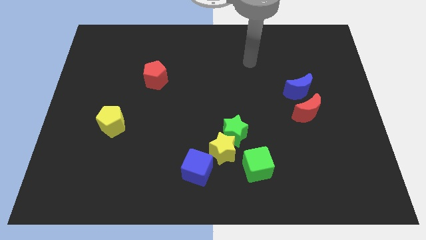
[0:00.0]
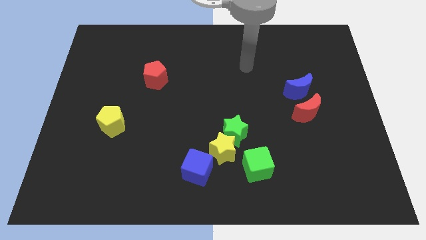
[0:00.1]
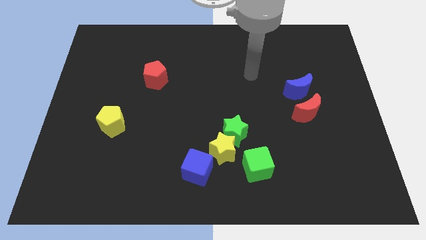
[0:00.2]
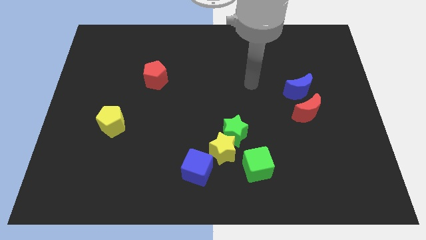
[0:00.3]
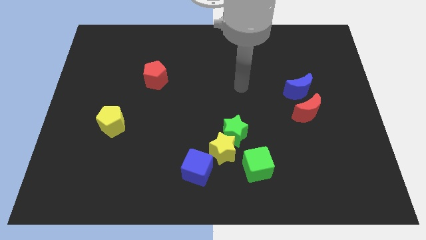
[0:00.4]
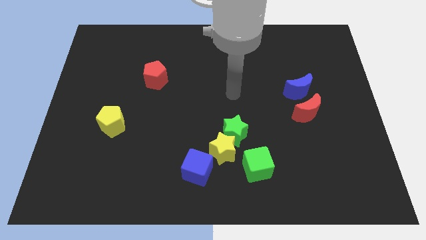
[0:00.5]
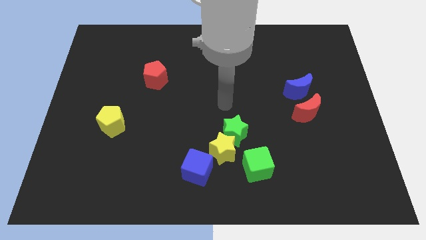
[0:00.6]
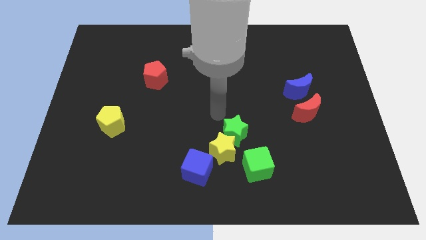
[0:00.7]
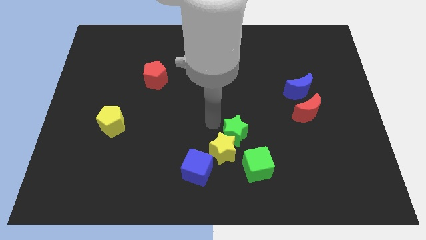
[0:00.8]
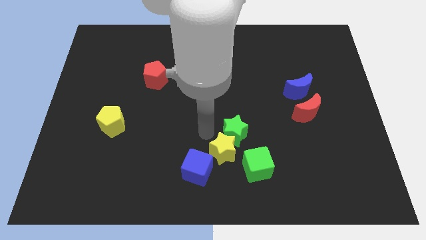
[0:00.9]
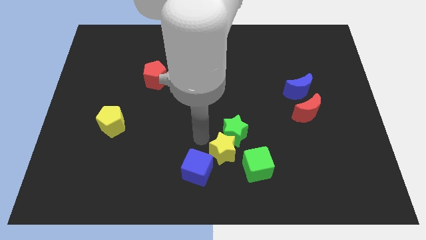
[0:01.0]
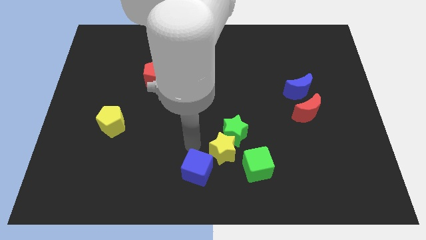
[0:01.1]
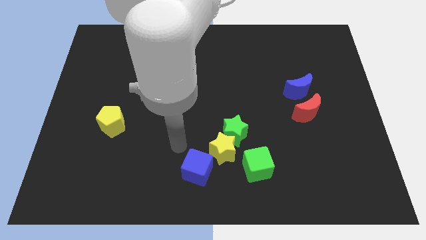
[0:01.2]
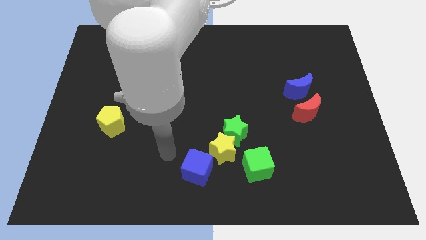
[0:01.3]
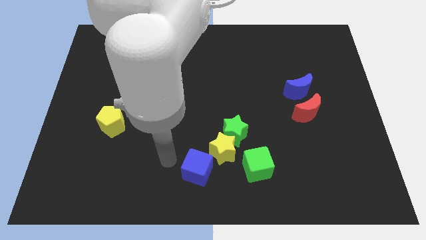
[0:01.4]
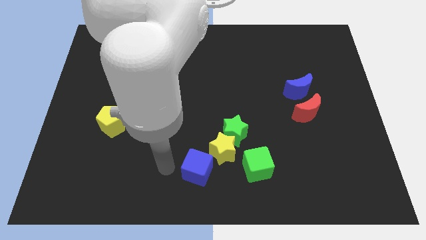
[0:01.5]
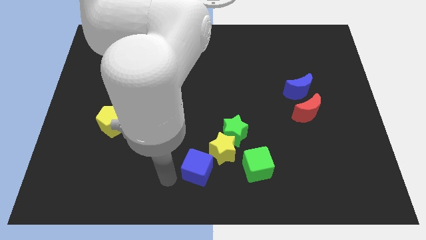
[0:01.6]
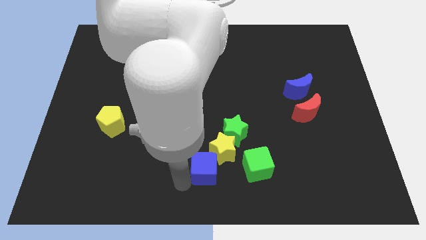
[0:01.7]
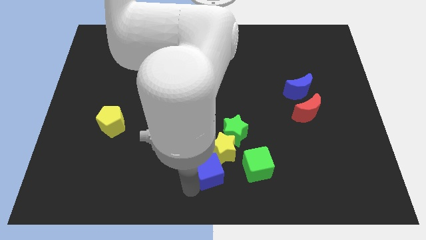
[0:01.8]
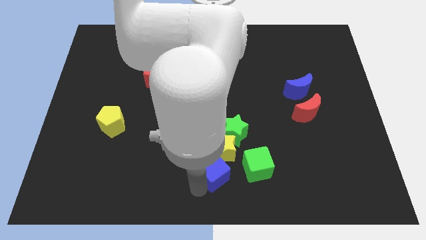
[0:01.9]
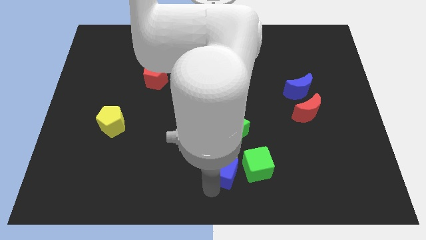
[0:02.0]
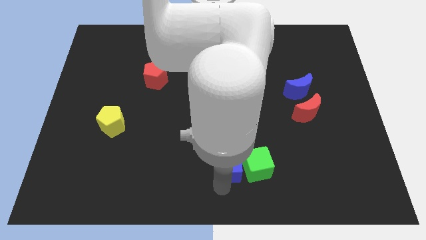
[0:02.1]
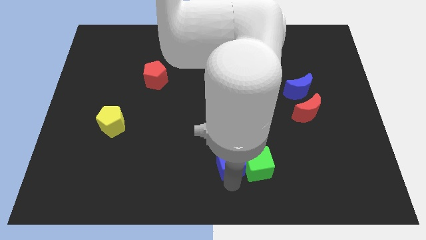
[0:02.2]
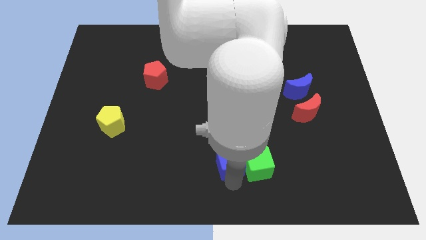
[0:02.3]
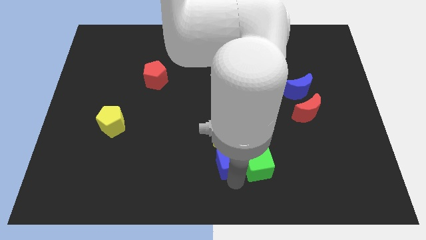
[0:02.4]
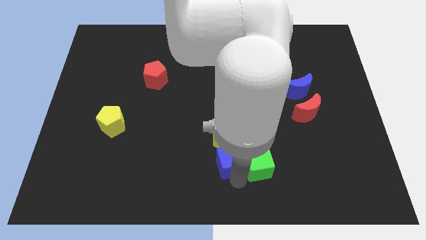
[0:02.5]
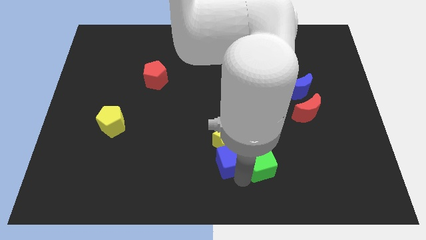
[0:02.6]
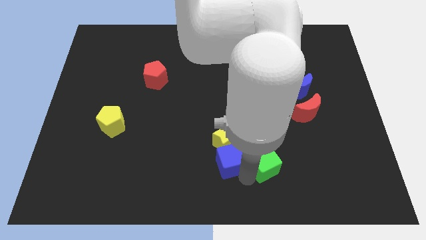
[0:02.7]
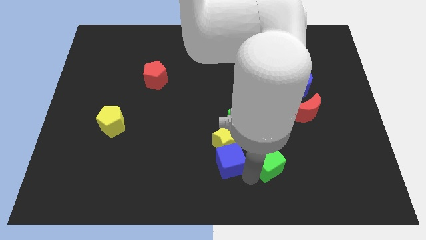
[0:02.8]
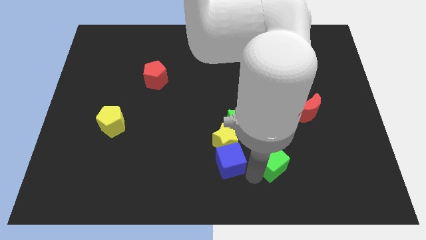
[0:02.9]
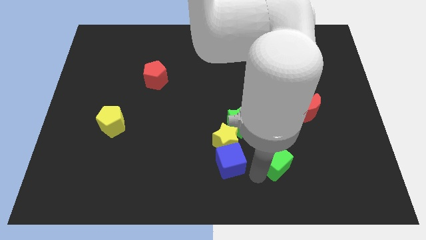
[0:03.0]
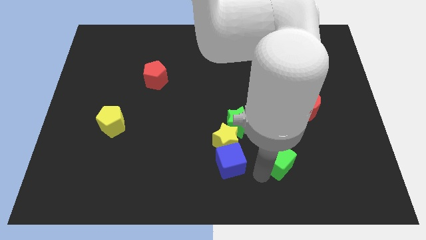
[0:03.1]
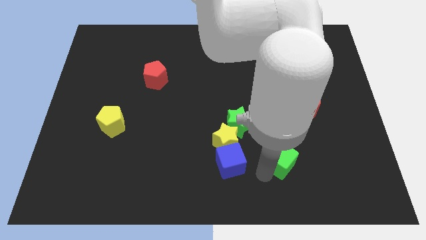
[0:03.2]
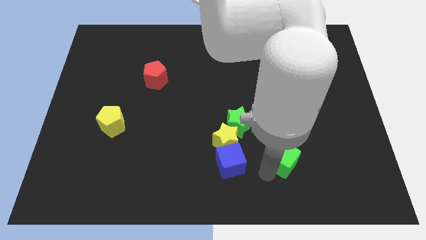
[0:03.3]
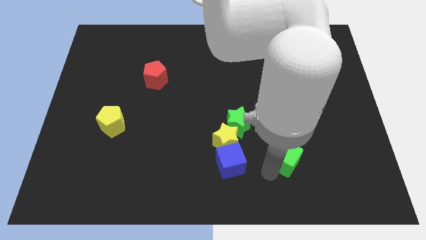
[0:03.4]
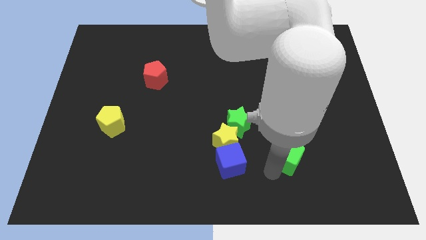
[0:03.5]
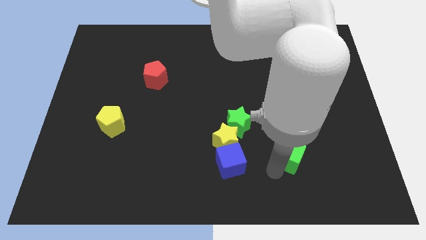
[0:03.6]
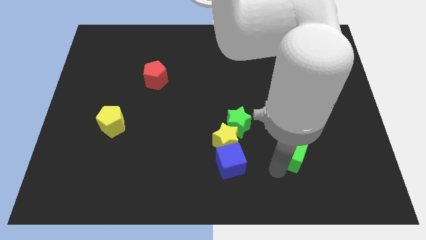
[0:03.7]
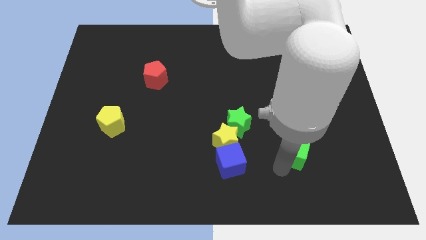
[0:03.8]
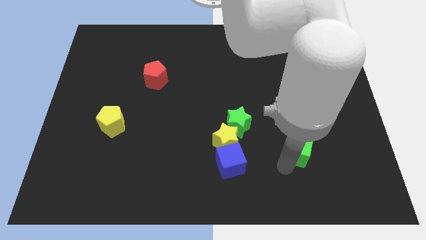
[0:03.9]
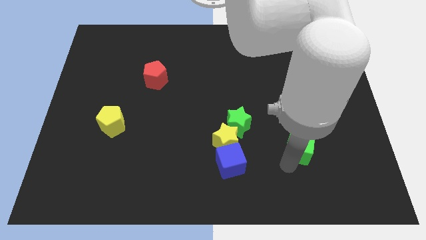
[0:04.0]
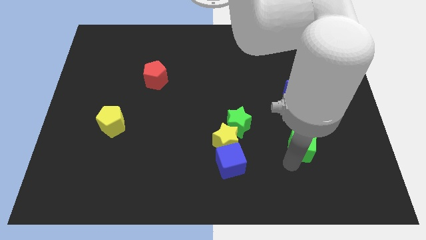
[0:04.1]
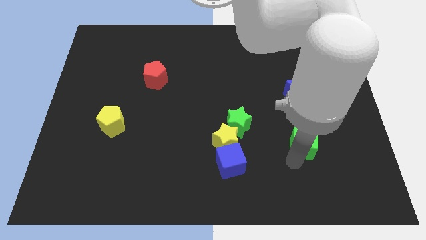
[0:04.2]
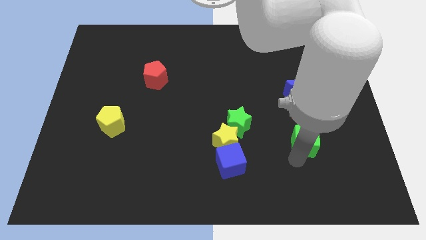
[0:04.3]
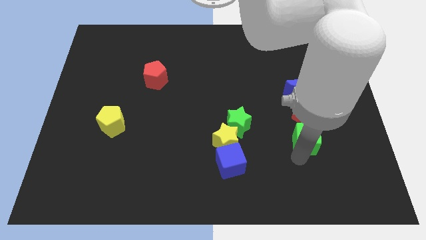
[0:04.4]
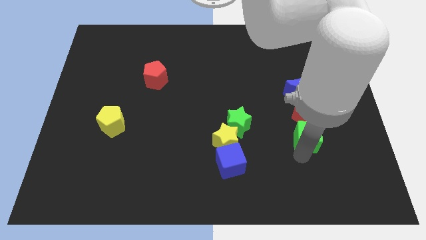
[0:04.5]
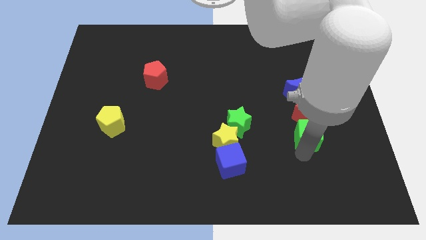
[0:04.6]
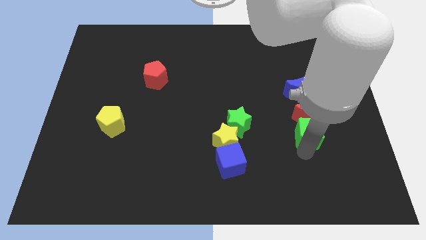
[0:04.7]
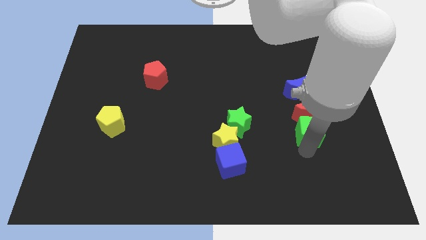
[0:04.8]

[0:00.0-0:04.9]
put the green cube to the red moon

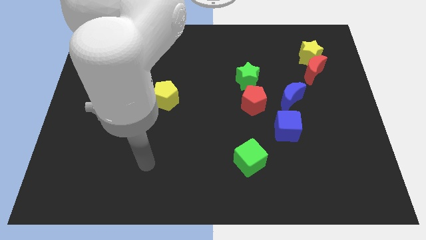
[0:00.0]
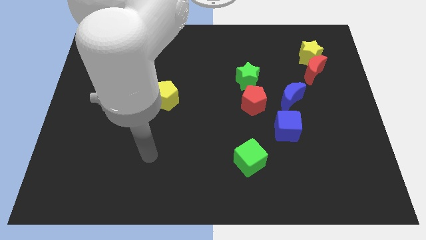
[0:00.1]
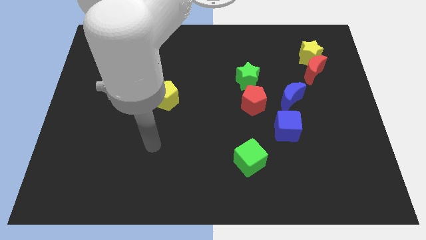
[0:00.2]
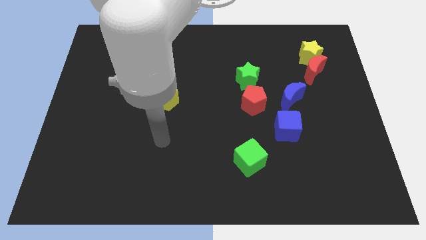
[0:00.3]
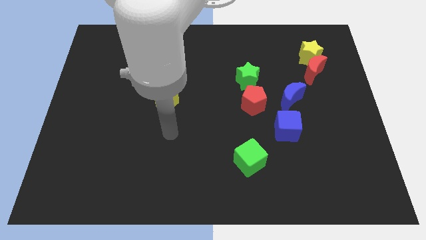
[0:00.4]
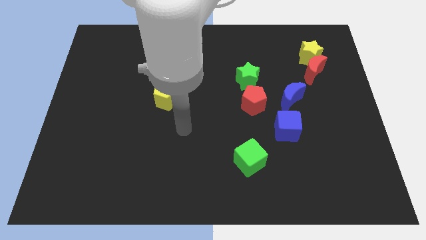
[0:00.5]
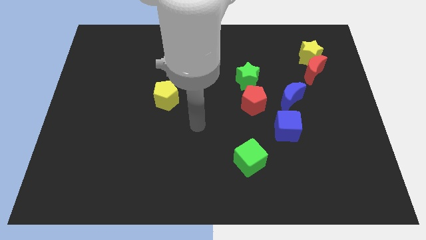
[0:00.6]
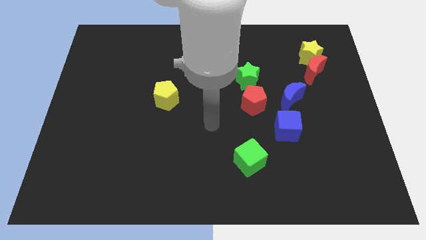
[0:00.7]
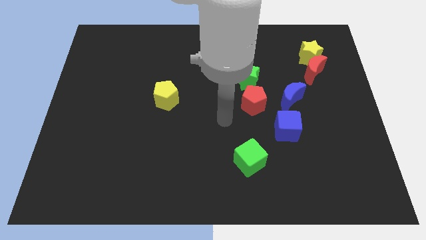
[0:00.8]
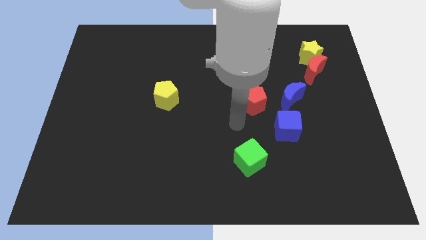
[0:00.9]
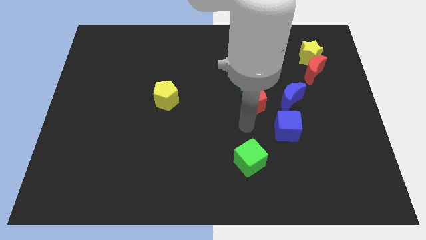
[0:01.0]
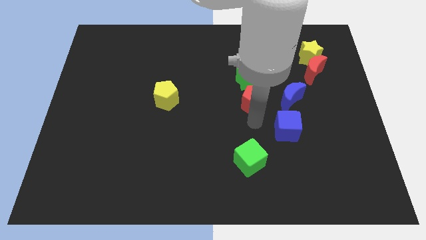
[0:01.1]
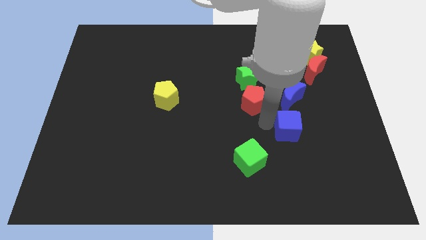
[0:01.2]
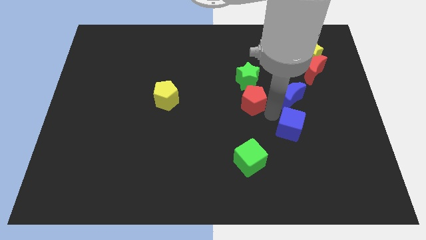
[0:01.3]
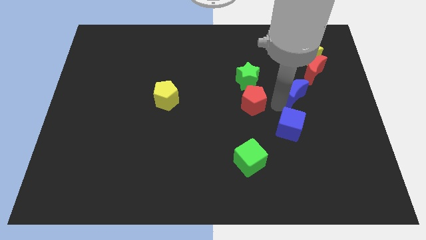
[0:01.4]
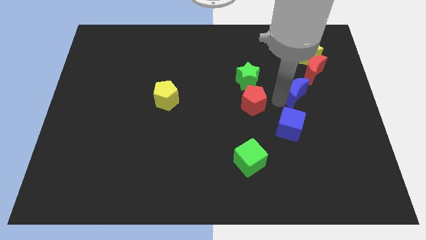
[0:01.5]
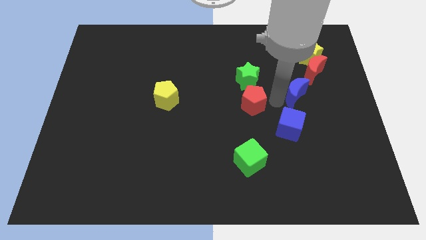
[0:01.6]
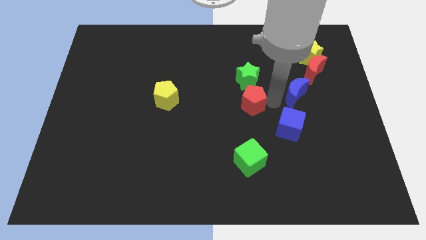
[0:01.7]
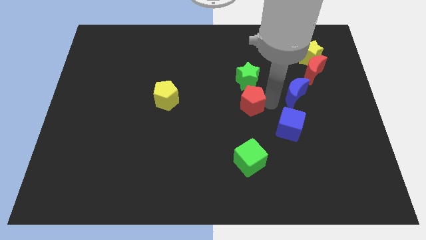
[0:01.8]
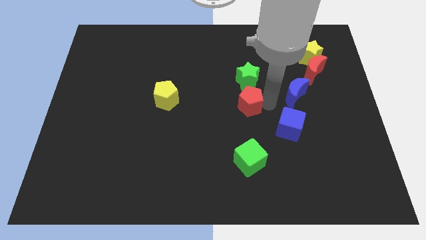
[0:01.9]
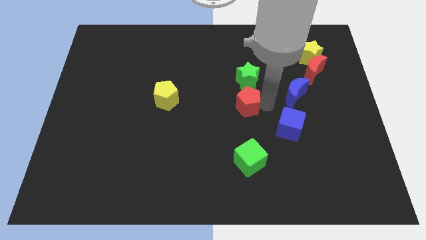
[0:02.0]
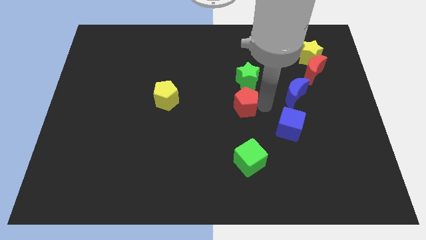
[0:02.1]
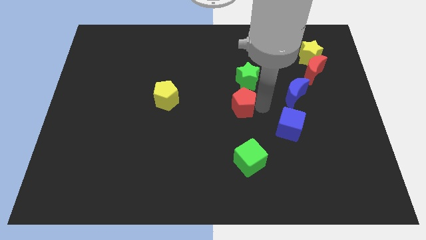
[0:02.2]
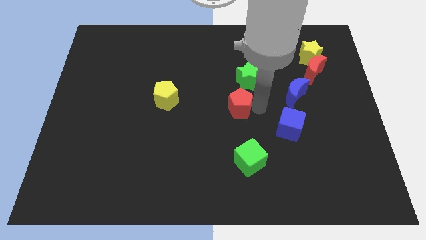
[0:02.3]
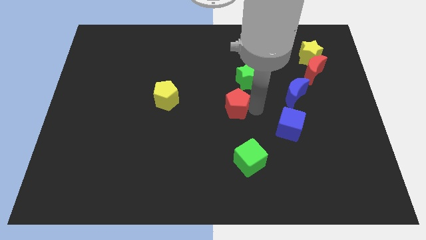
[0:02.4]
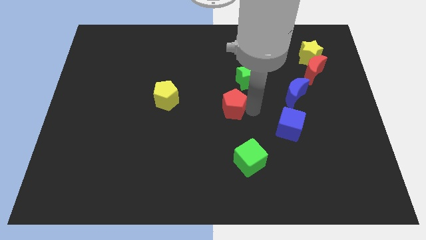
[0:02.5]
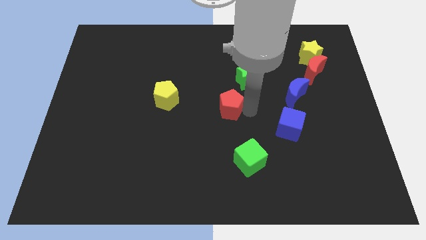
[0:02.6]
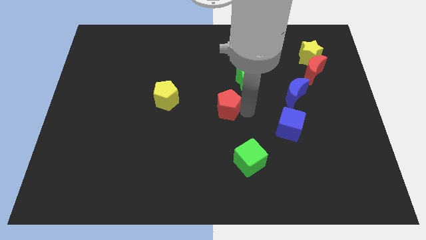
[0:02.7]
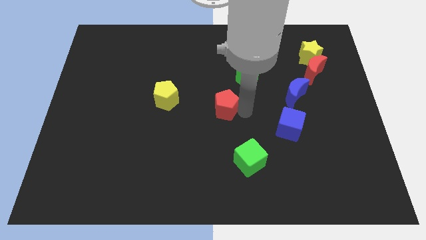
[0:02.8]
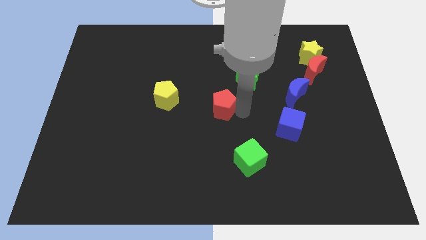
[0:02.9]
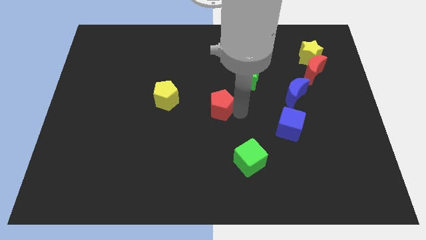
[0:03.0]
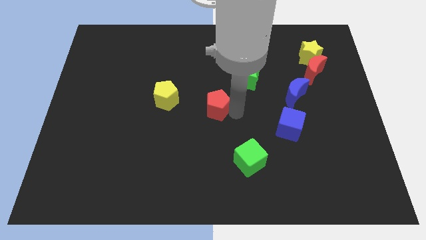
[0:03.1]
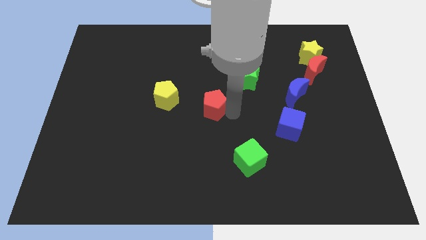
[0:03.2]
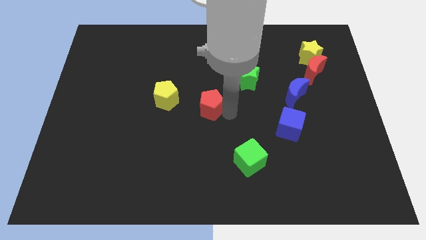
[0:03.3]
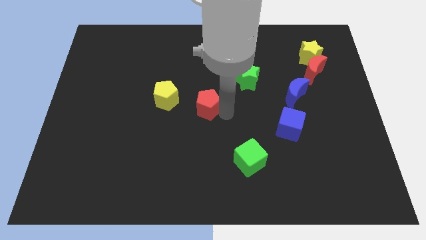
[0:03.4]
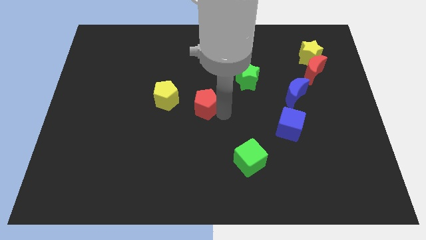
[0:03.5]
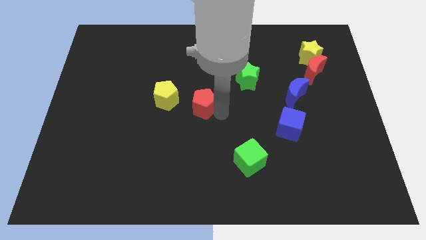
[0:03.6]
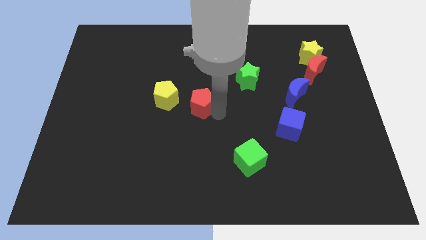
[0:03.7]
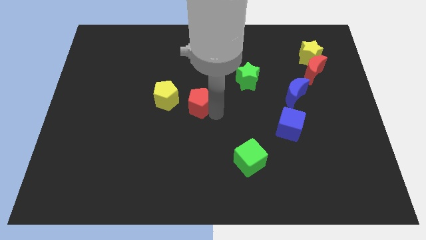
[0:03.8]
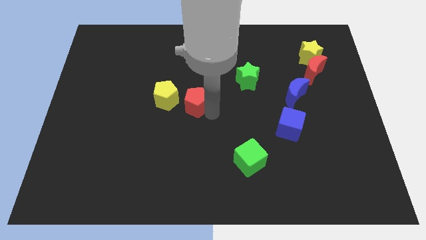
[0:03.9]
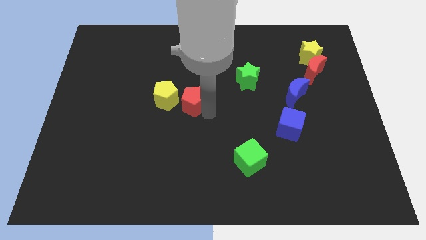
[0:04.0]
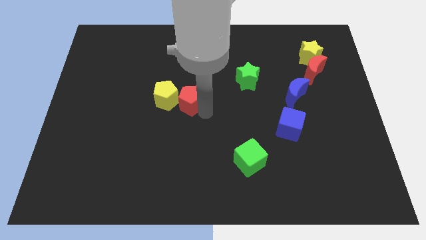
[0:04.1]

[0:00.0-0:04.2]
push the red pentagon close to the yellow pentagon
